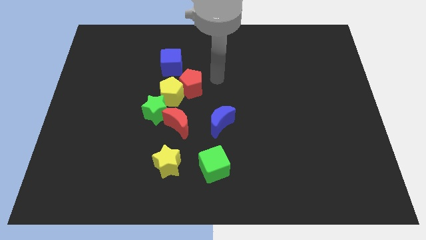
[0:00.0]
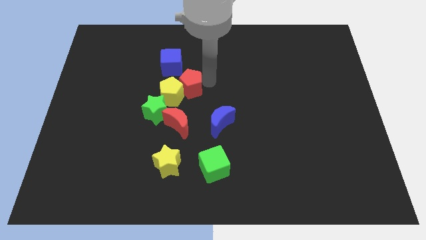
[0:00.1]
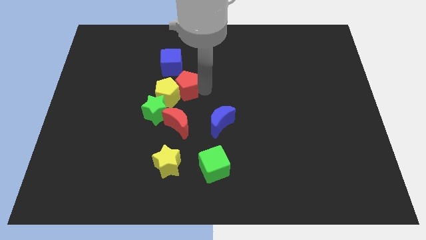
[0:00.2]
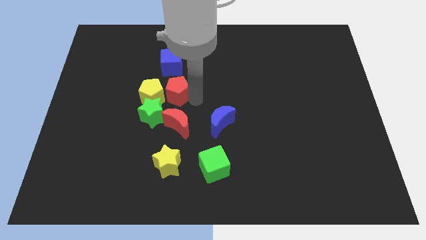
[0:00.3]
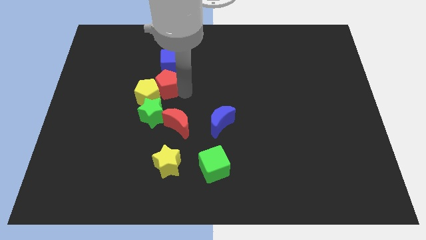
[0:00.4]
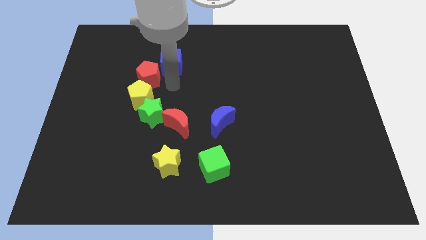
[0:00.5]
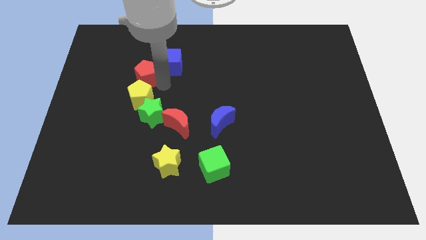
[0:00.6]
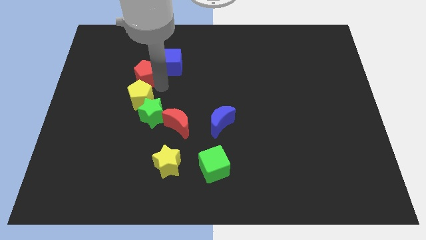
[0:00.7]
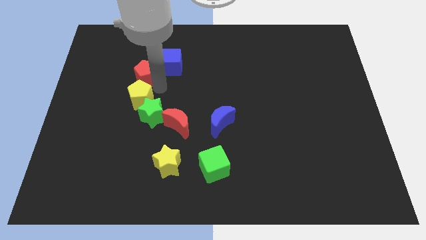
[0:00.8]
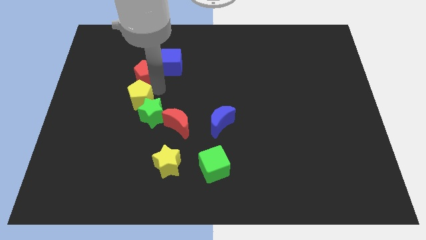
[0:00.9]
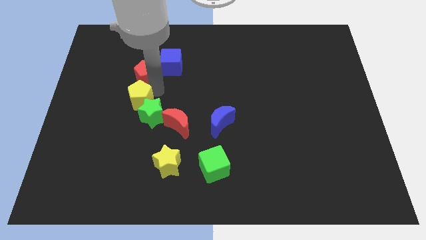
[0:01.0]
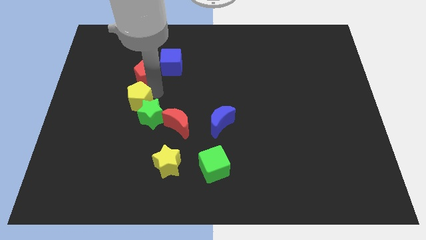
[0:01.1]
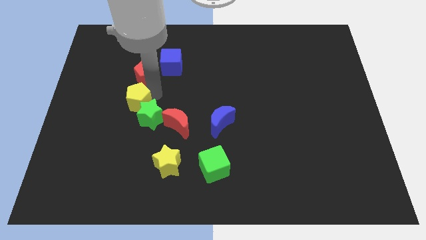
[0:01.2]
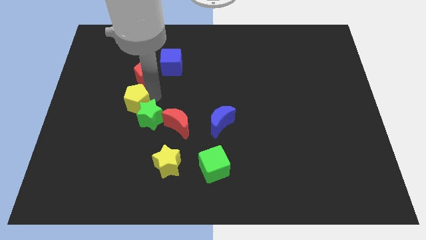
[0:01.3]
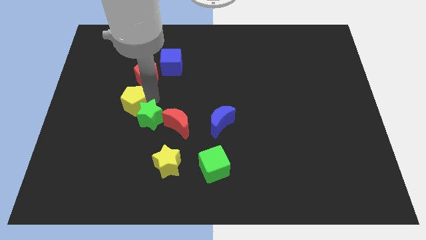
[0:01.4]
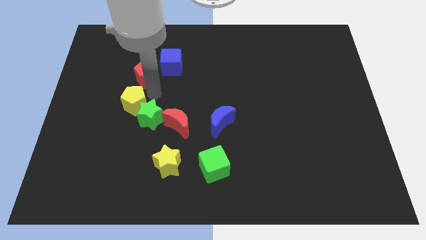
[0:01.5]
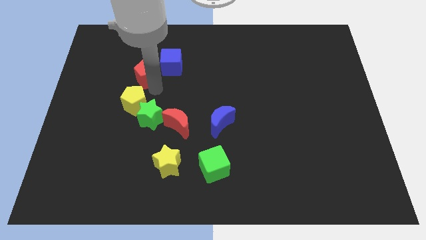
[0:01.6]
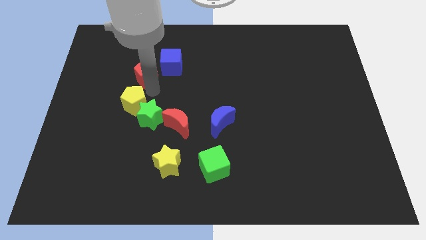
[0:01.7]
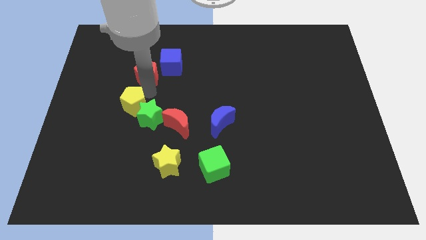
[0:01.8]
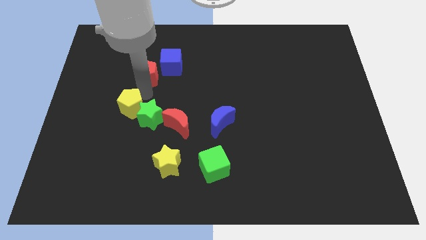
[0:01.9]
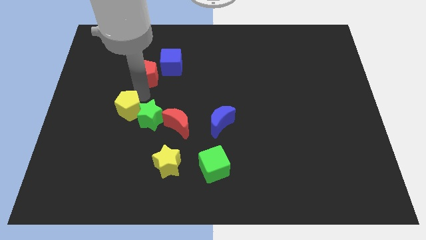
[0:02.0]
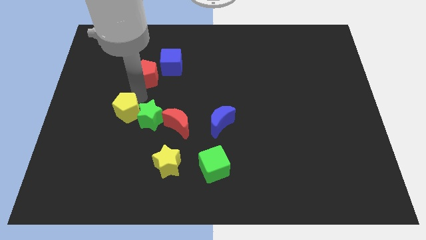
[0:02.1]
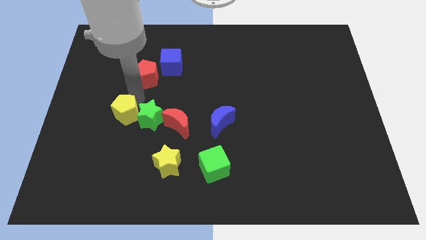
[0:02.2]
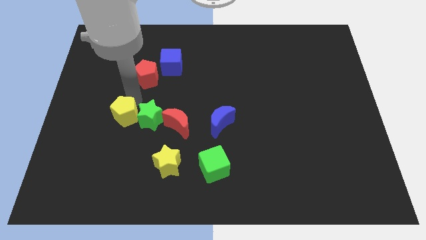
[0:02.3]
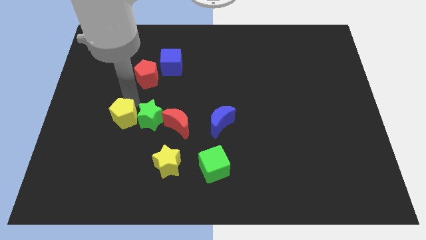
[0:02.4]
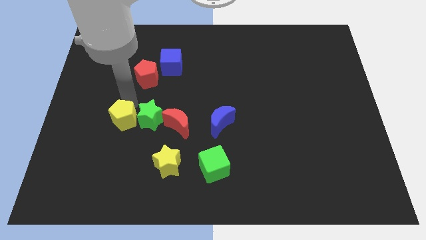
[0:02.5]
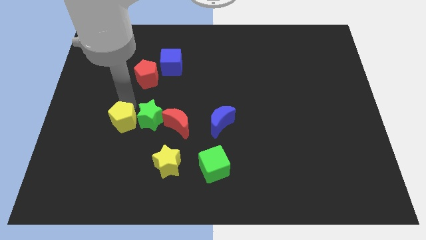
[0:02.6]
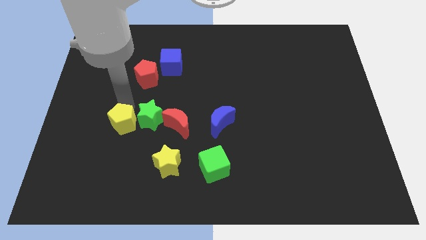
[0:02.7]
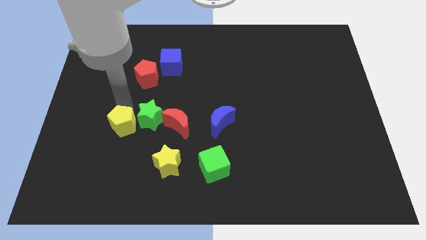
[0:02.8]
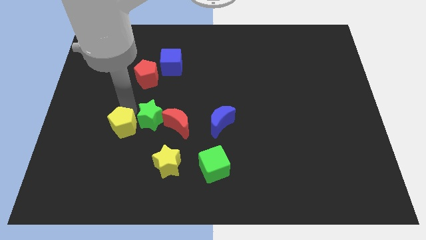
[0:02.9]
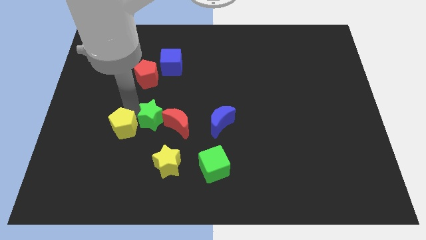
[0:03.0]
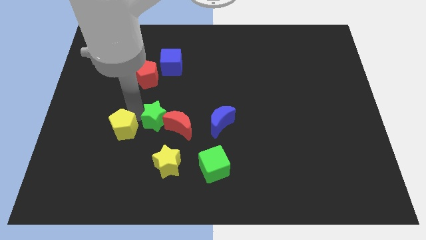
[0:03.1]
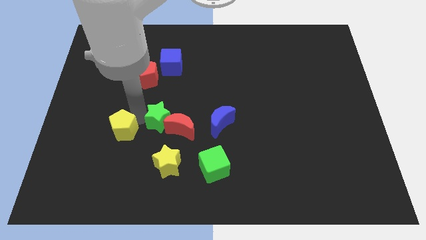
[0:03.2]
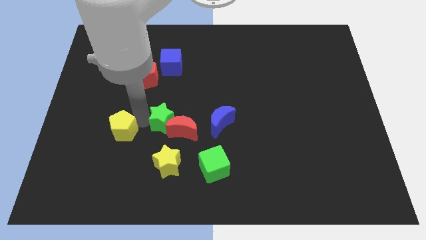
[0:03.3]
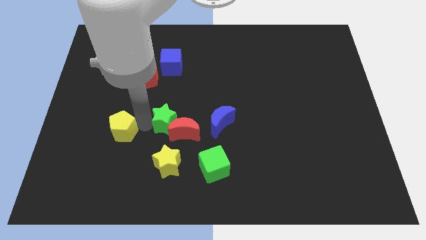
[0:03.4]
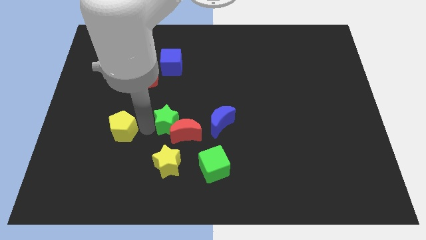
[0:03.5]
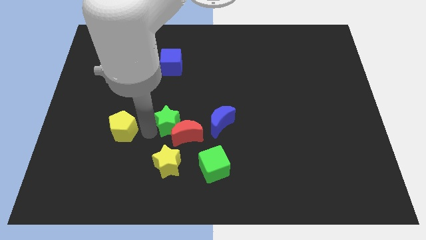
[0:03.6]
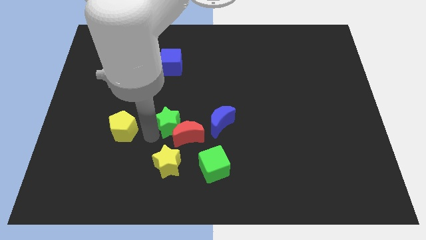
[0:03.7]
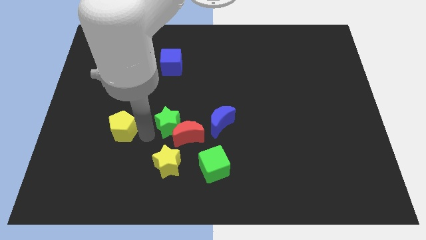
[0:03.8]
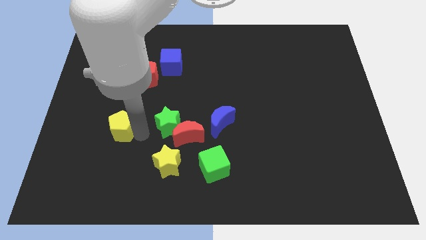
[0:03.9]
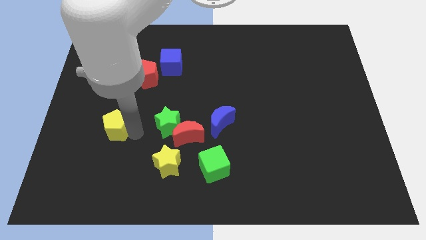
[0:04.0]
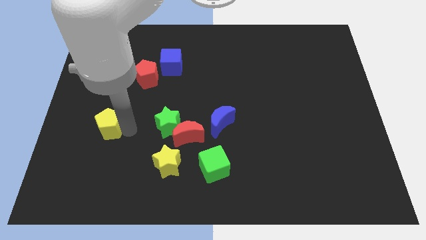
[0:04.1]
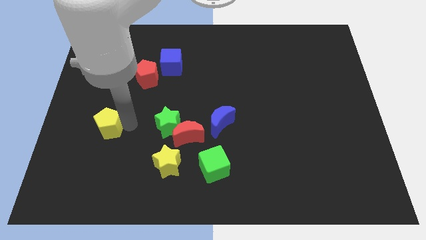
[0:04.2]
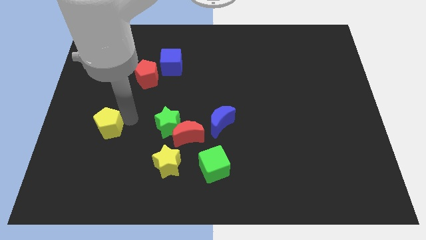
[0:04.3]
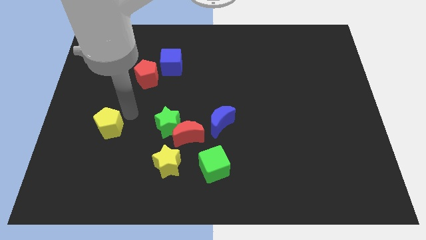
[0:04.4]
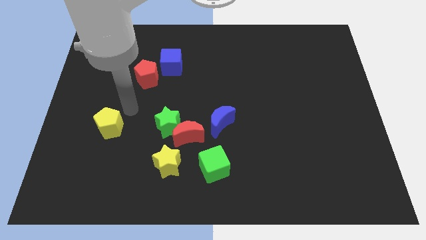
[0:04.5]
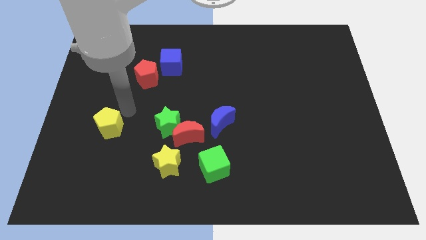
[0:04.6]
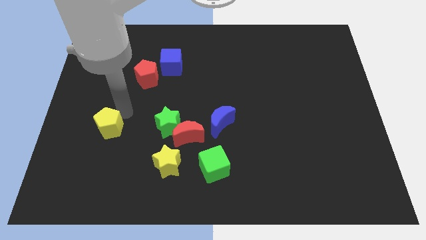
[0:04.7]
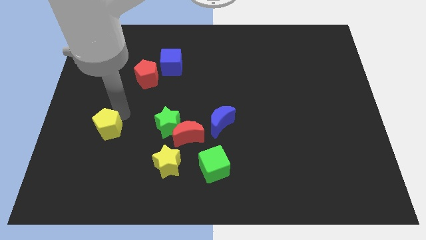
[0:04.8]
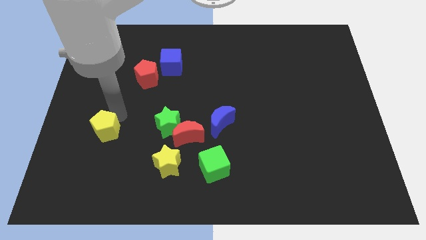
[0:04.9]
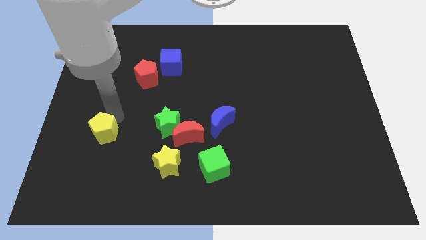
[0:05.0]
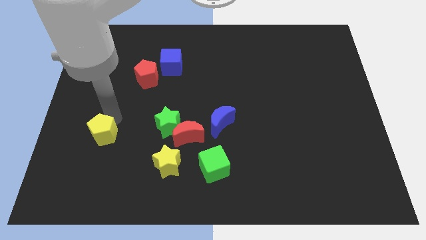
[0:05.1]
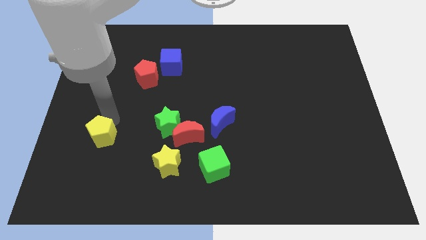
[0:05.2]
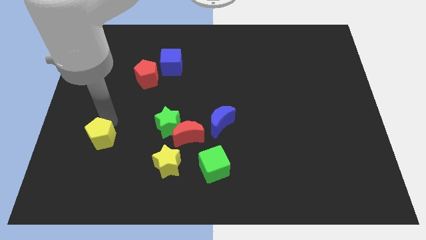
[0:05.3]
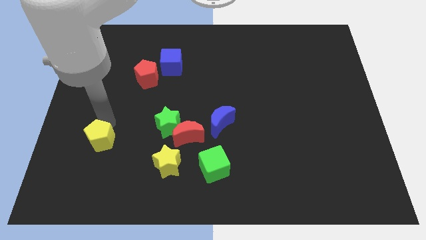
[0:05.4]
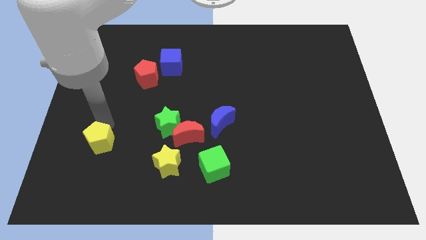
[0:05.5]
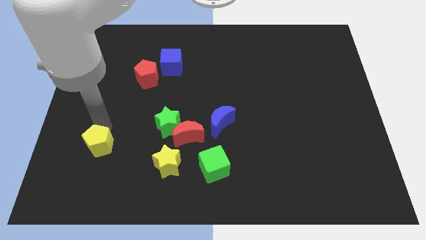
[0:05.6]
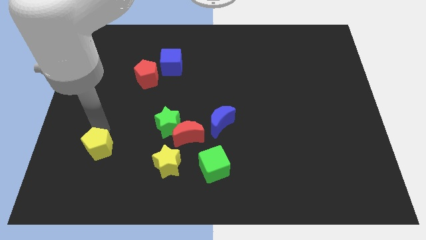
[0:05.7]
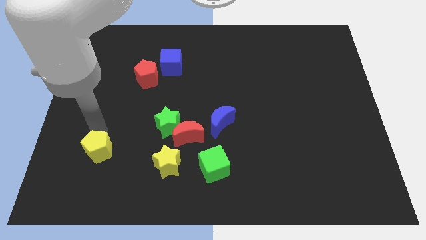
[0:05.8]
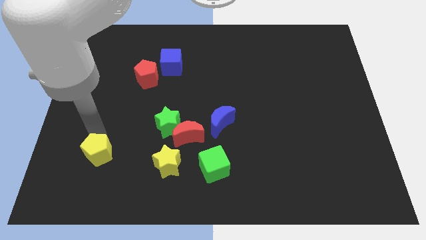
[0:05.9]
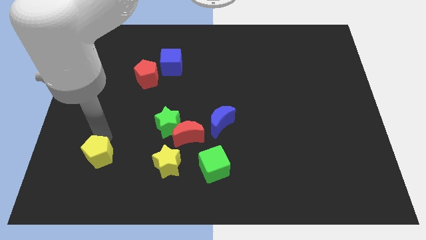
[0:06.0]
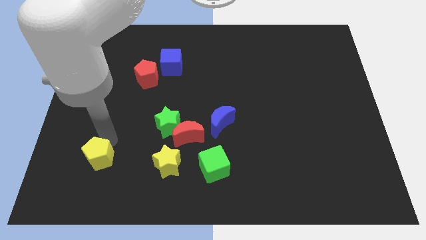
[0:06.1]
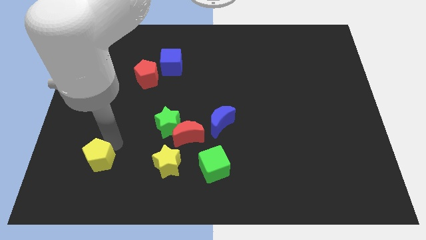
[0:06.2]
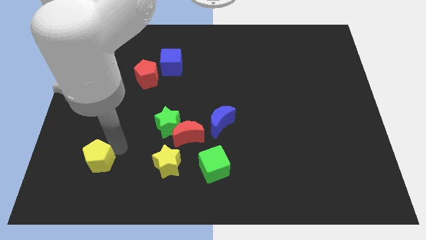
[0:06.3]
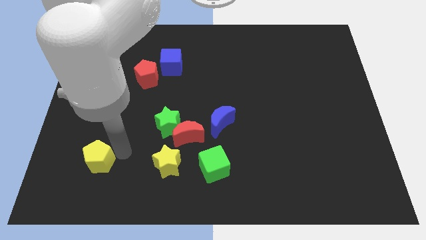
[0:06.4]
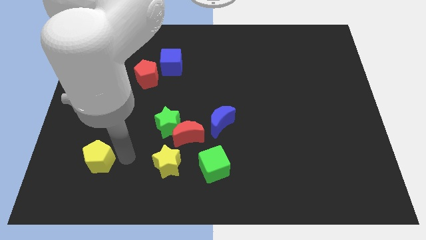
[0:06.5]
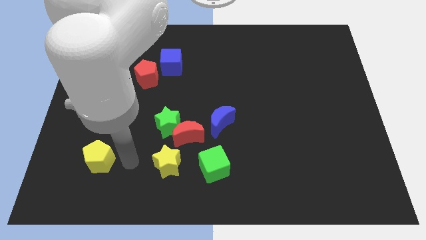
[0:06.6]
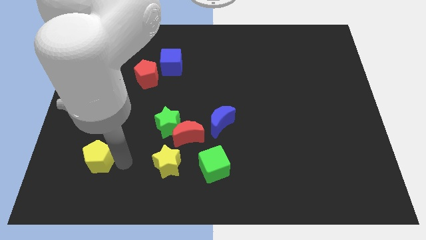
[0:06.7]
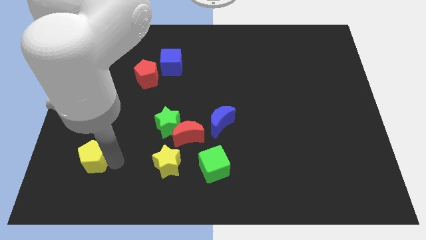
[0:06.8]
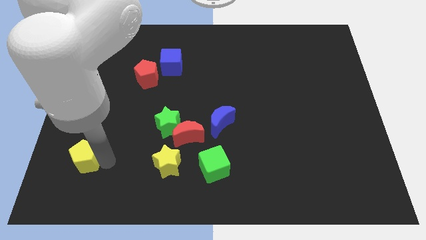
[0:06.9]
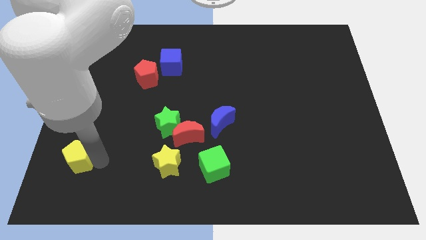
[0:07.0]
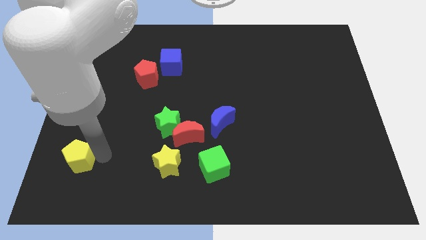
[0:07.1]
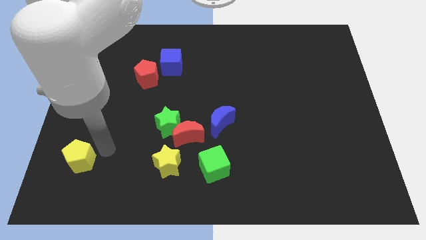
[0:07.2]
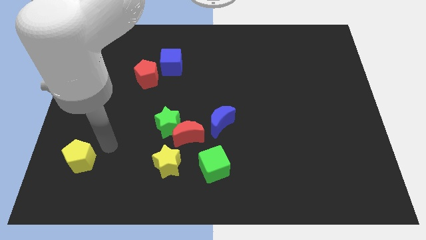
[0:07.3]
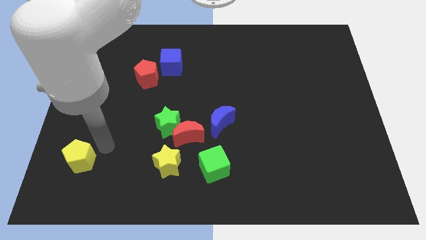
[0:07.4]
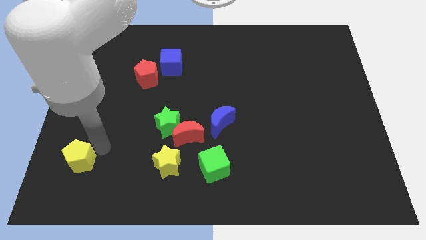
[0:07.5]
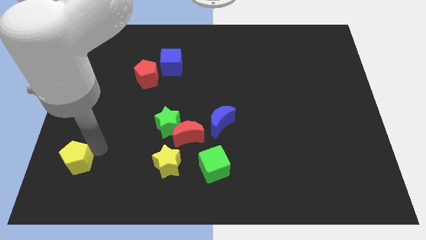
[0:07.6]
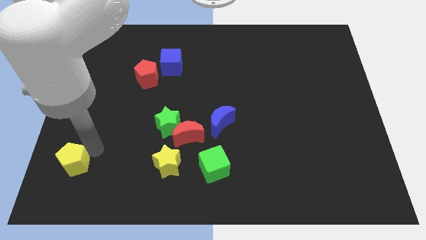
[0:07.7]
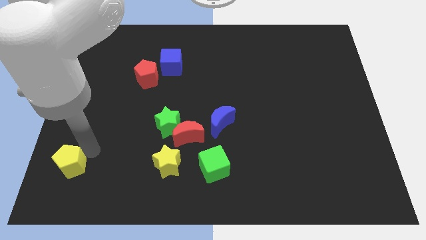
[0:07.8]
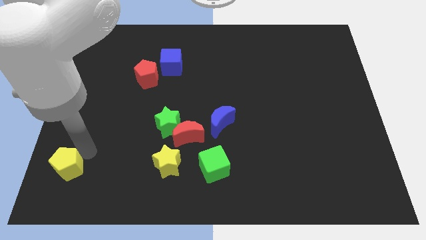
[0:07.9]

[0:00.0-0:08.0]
push the yellow pentagon to the lower left corner
